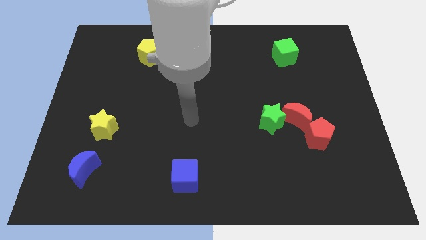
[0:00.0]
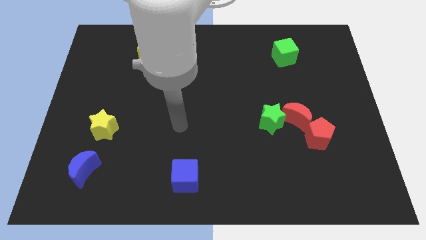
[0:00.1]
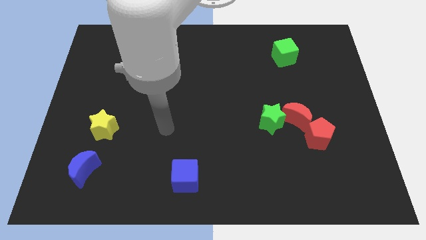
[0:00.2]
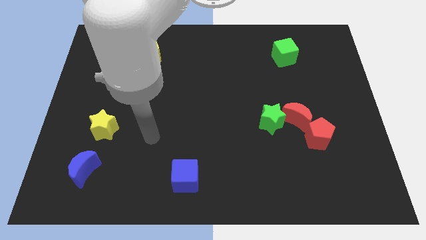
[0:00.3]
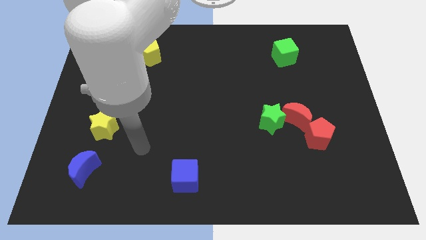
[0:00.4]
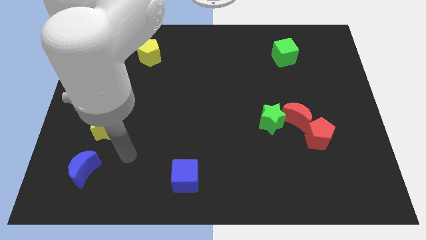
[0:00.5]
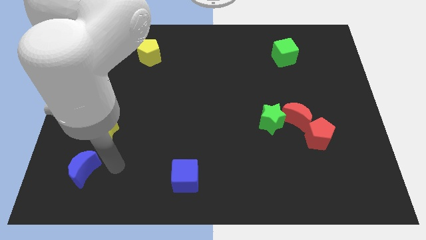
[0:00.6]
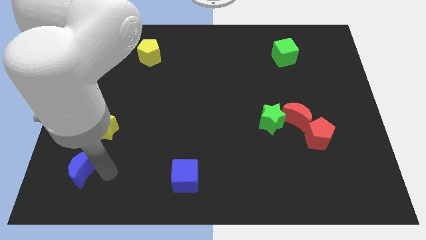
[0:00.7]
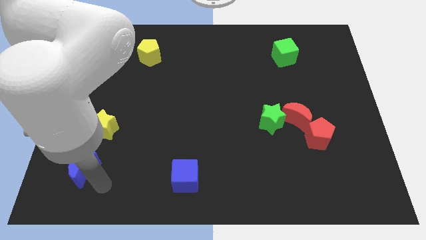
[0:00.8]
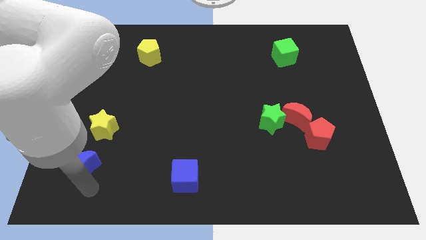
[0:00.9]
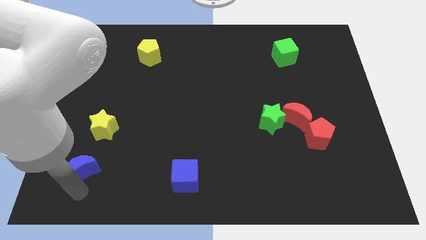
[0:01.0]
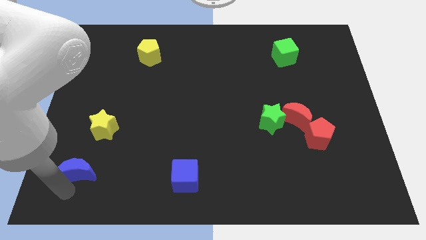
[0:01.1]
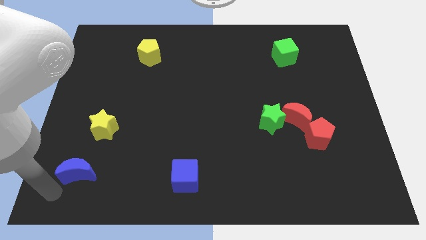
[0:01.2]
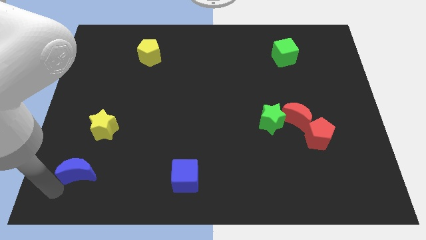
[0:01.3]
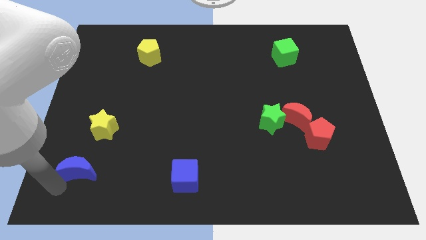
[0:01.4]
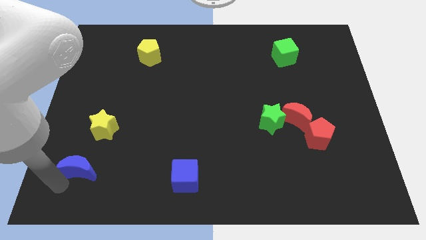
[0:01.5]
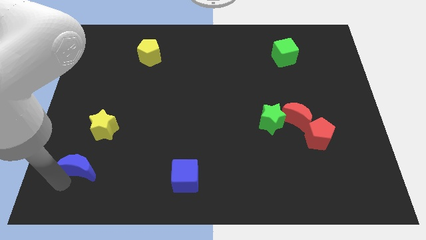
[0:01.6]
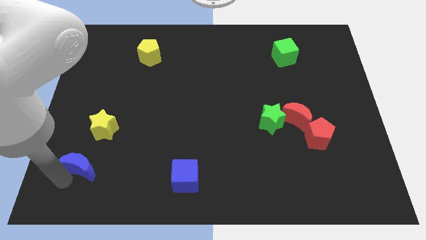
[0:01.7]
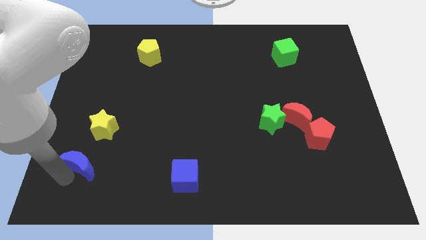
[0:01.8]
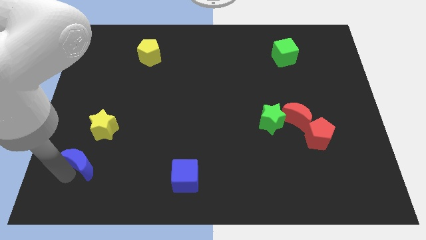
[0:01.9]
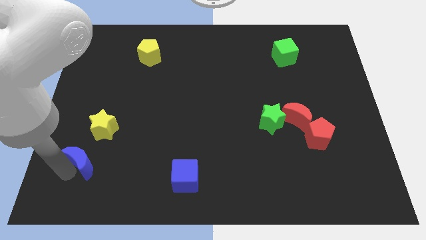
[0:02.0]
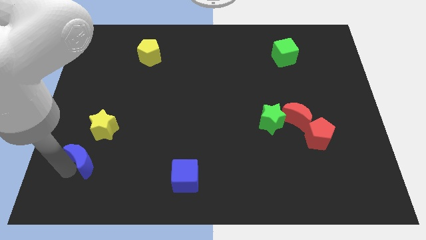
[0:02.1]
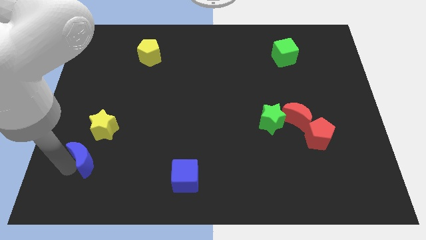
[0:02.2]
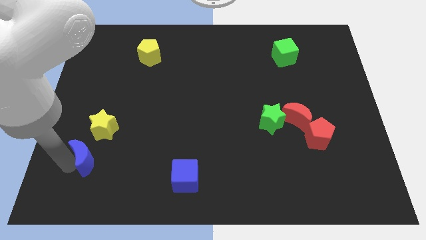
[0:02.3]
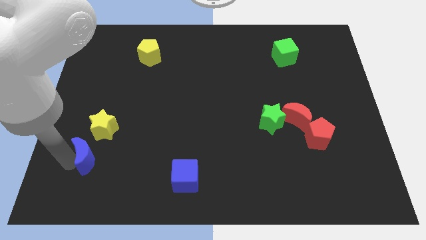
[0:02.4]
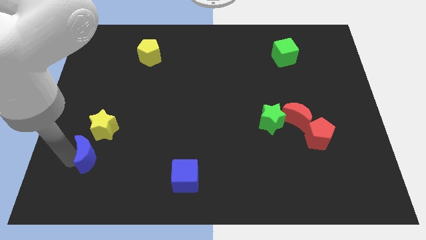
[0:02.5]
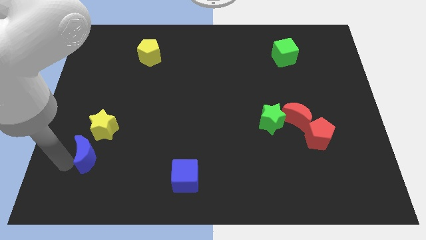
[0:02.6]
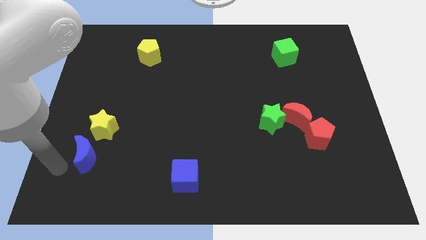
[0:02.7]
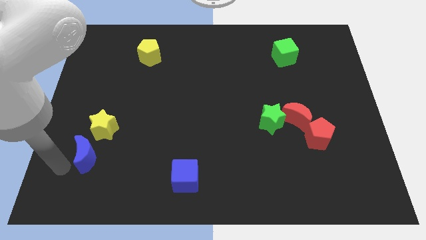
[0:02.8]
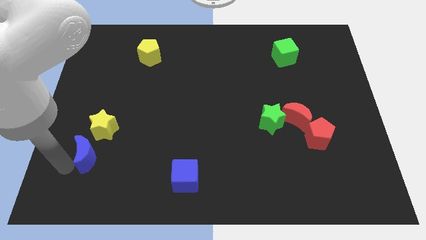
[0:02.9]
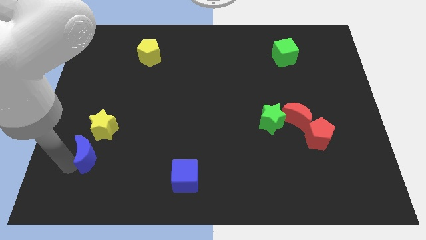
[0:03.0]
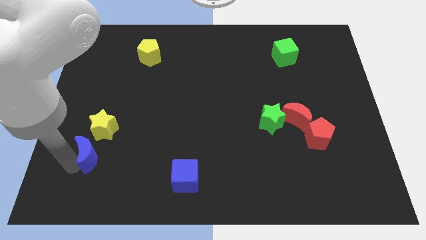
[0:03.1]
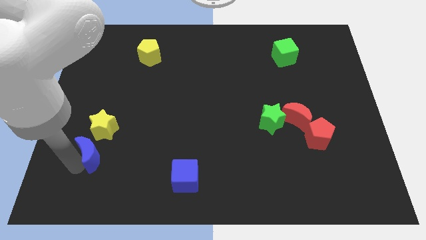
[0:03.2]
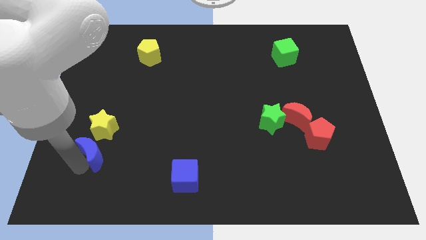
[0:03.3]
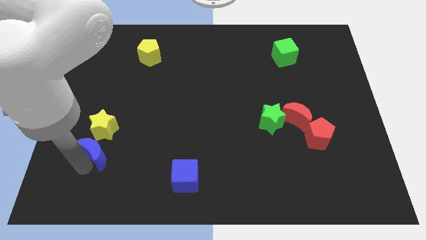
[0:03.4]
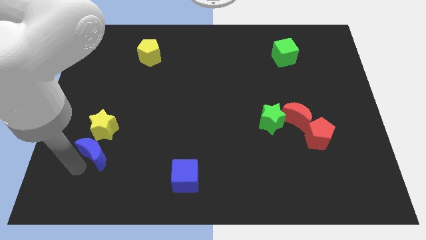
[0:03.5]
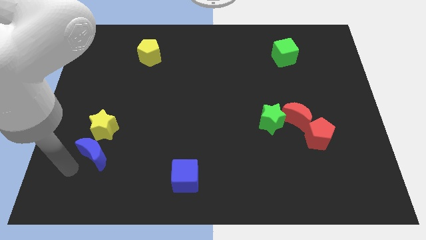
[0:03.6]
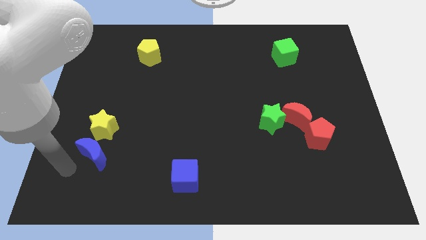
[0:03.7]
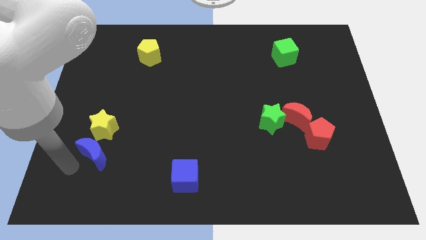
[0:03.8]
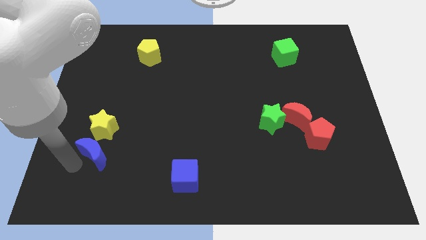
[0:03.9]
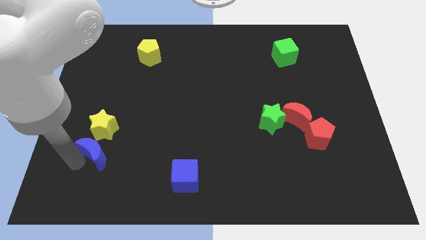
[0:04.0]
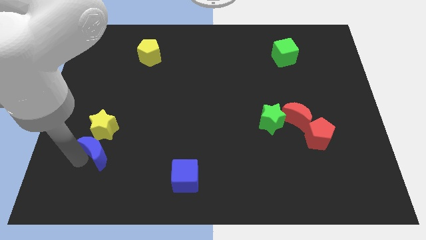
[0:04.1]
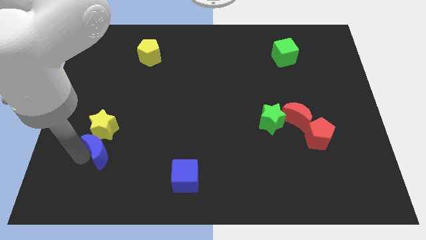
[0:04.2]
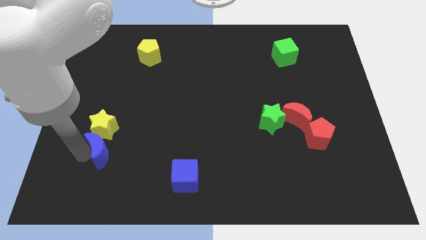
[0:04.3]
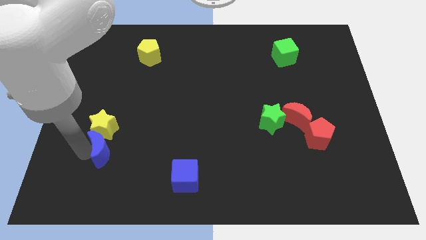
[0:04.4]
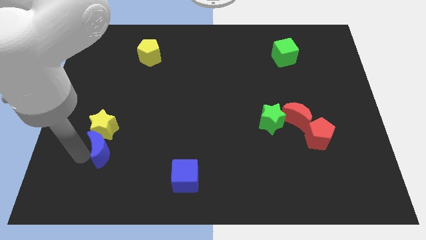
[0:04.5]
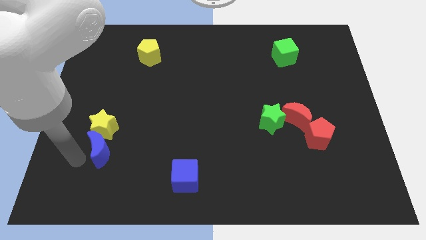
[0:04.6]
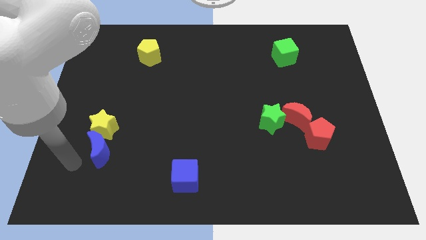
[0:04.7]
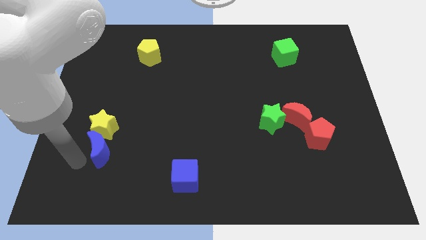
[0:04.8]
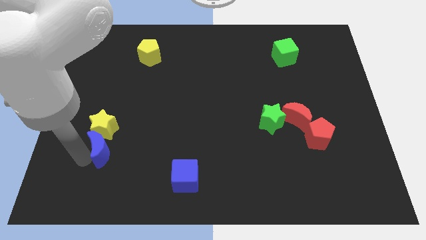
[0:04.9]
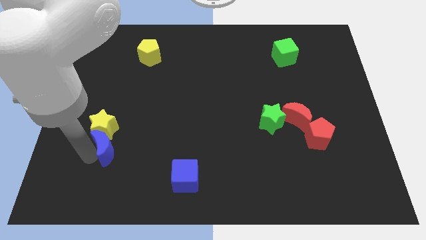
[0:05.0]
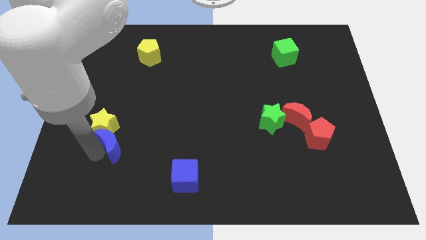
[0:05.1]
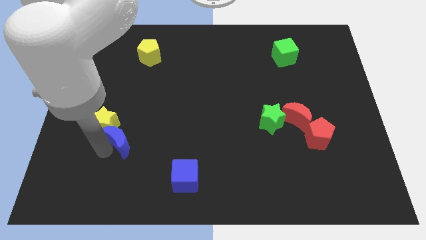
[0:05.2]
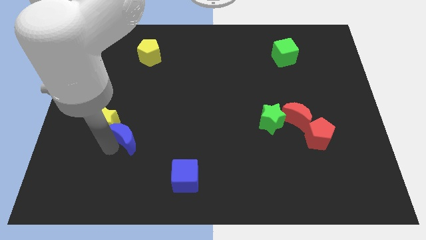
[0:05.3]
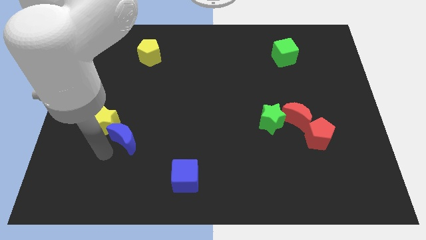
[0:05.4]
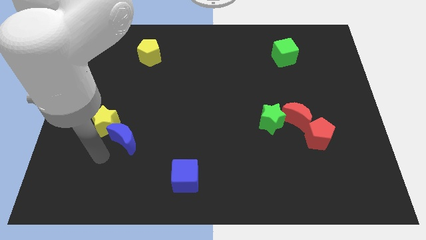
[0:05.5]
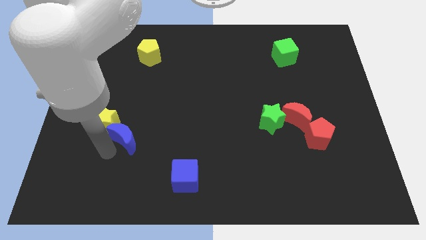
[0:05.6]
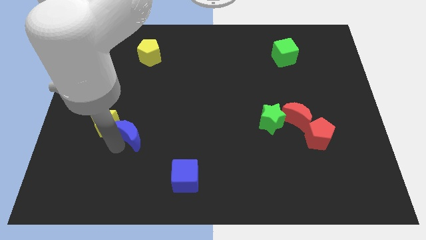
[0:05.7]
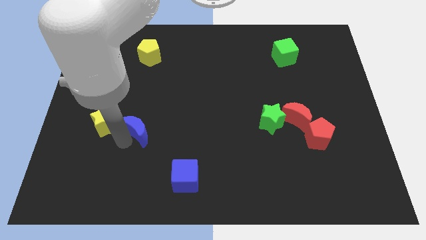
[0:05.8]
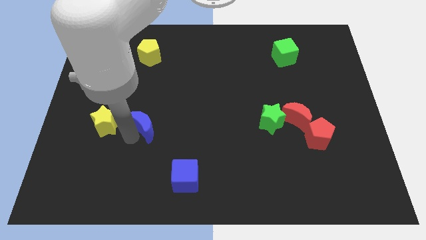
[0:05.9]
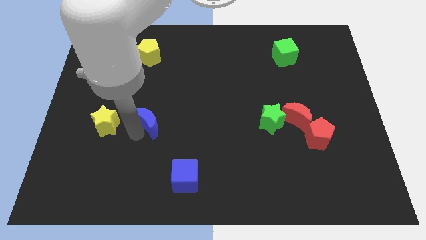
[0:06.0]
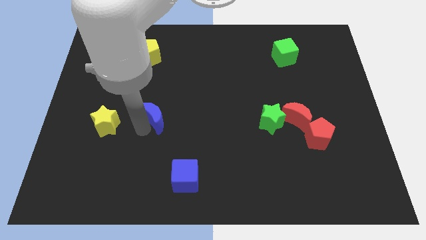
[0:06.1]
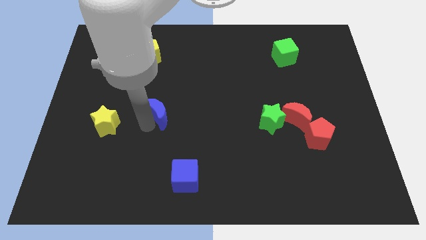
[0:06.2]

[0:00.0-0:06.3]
move the blue moon diagonally upwards and right

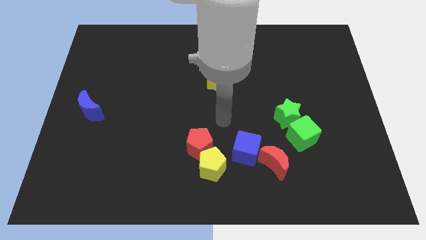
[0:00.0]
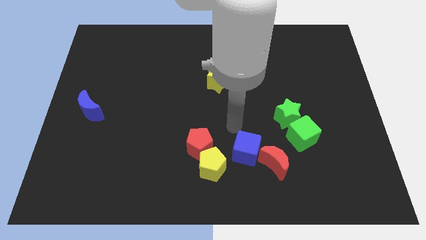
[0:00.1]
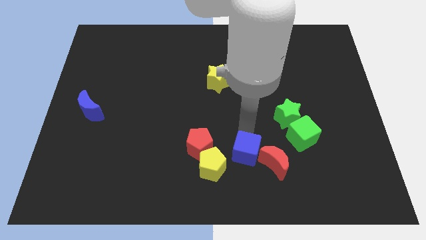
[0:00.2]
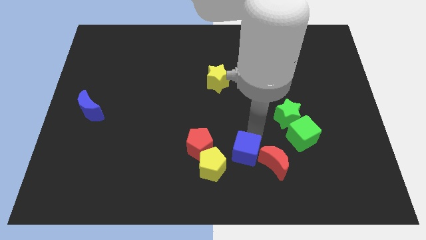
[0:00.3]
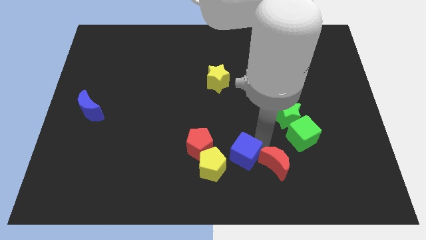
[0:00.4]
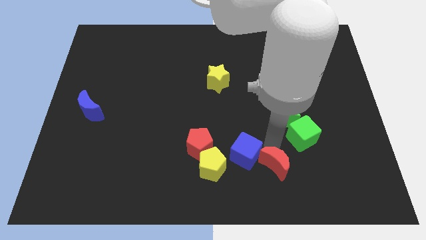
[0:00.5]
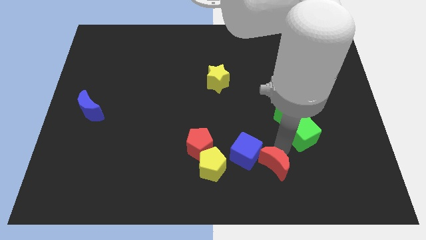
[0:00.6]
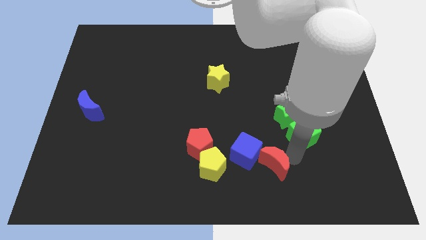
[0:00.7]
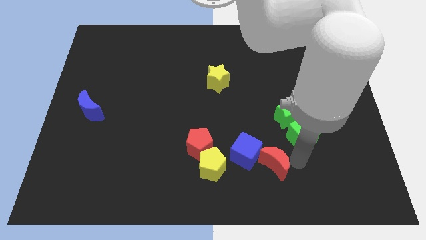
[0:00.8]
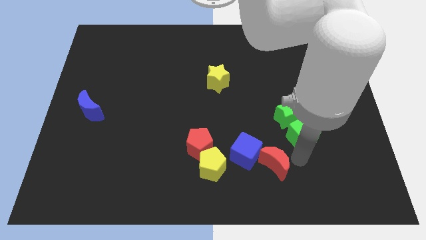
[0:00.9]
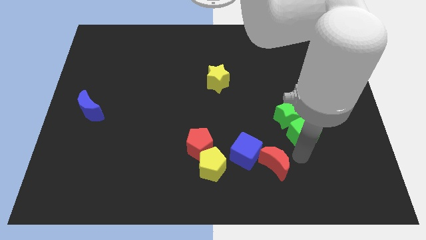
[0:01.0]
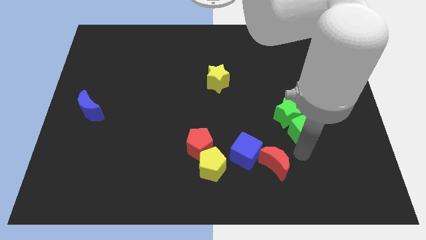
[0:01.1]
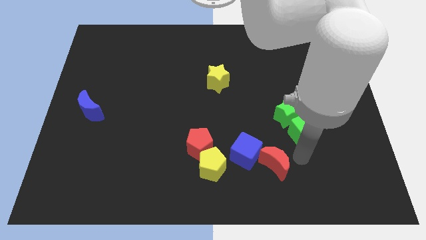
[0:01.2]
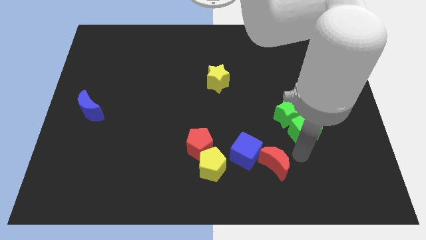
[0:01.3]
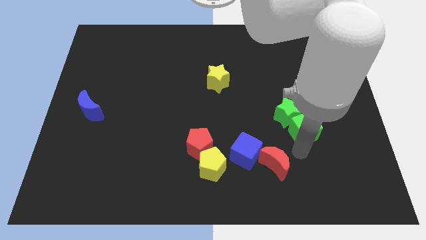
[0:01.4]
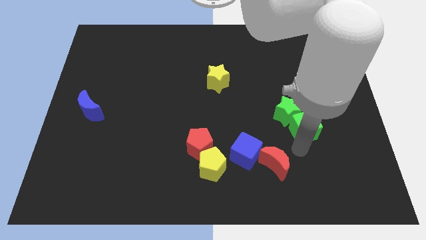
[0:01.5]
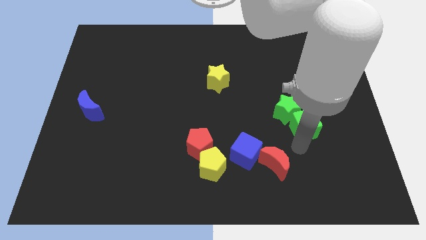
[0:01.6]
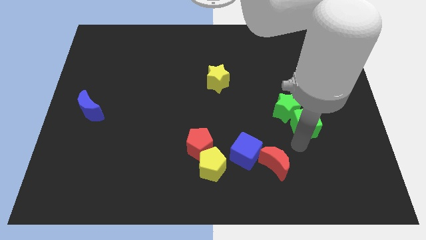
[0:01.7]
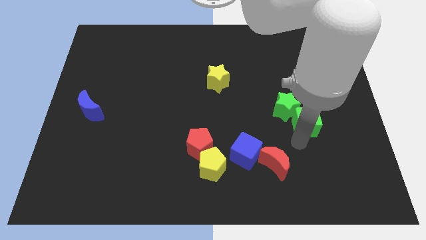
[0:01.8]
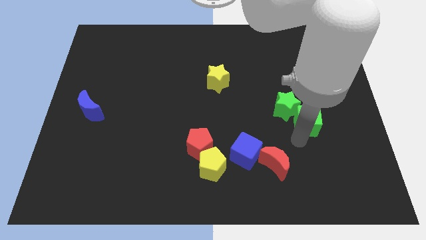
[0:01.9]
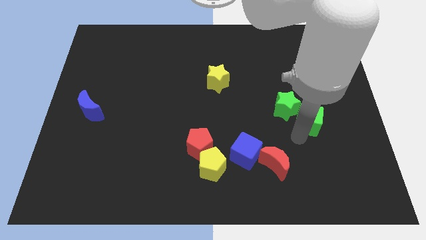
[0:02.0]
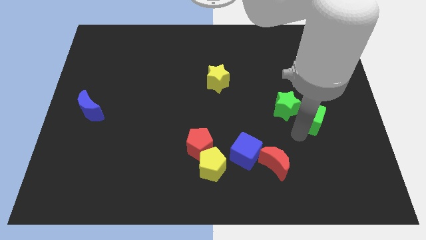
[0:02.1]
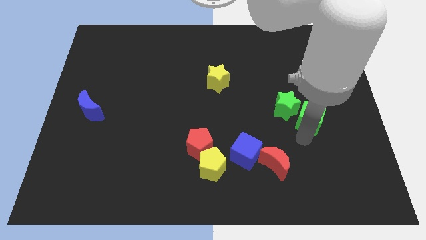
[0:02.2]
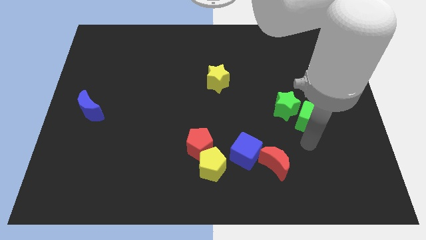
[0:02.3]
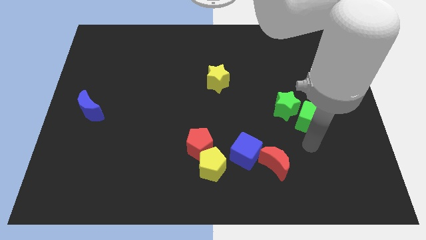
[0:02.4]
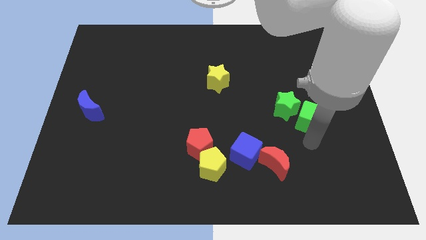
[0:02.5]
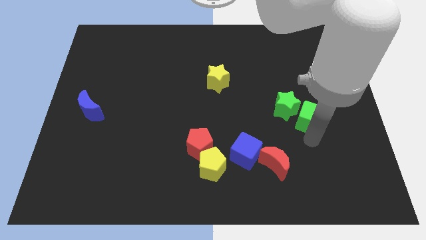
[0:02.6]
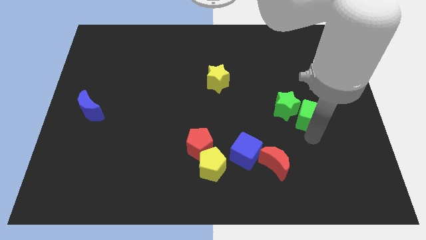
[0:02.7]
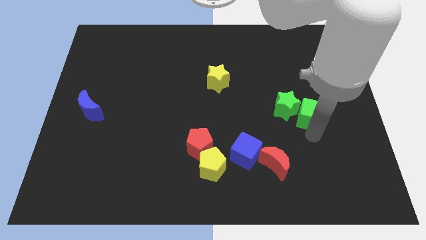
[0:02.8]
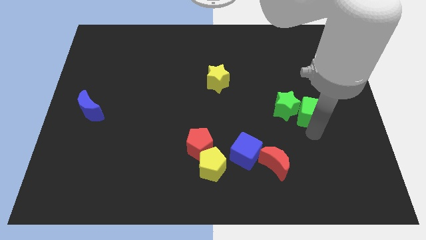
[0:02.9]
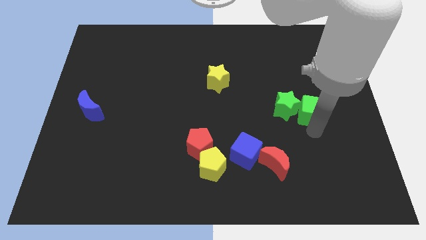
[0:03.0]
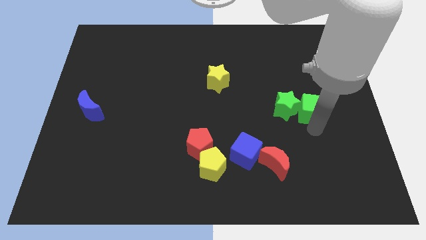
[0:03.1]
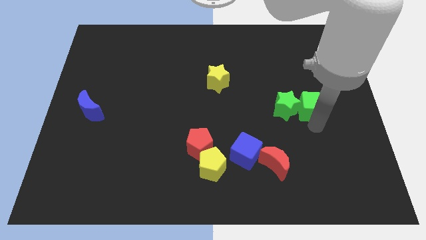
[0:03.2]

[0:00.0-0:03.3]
slightly slide the green cube upwards
